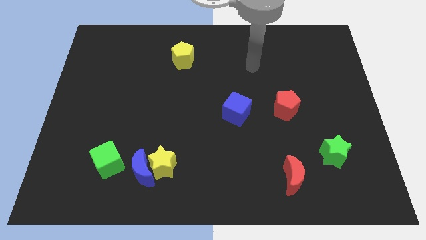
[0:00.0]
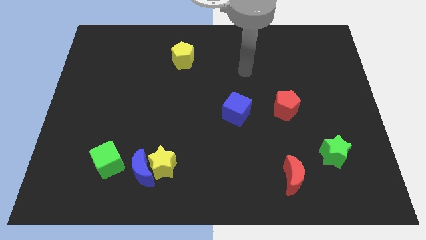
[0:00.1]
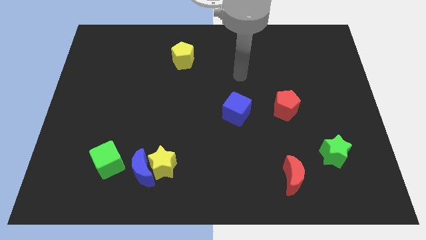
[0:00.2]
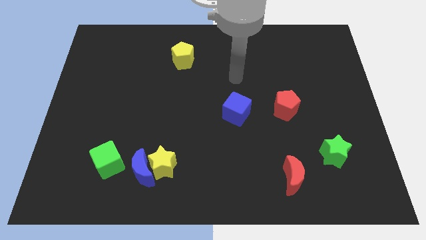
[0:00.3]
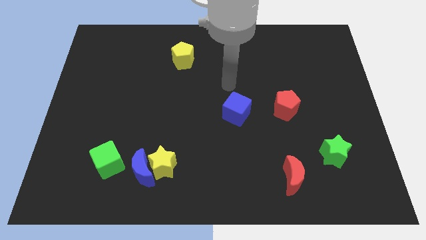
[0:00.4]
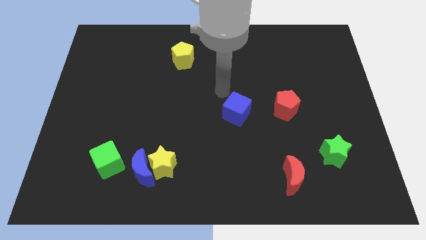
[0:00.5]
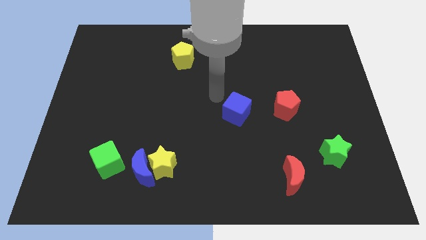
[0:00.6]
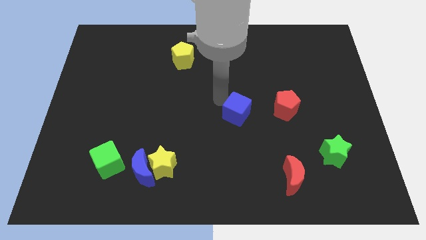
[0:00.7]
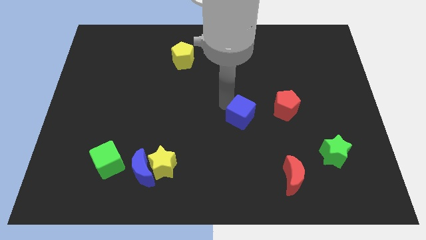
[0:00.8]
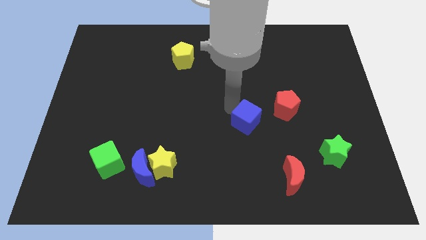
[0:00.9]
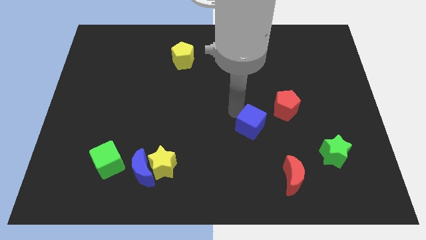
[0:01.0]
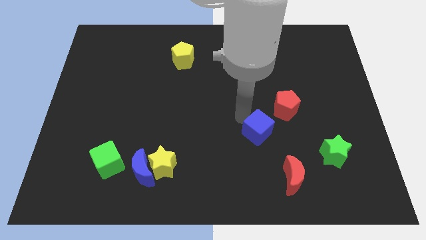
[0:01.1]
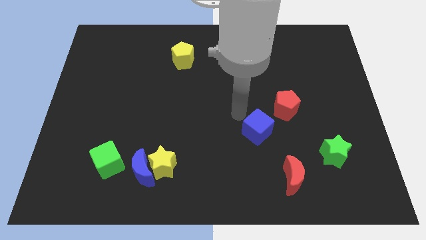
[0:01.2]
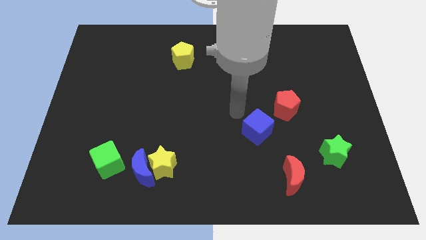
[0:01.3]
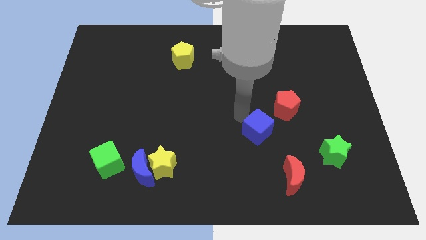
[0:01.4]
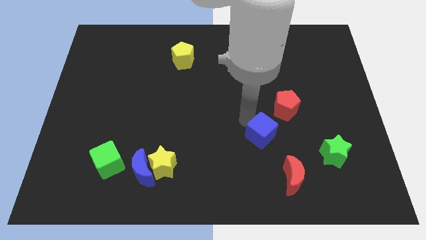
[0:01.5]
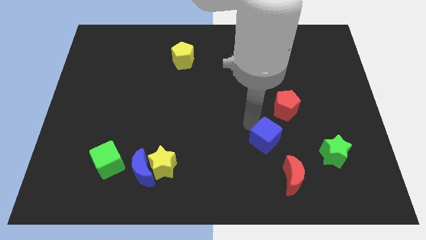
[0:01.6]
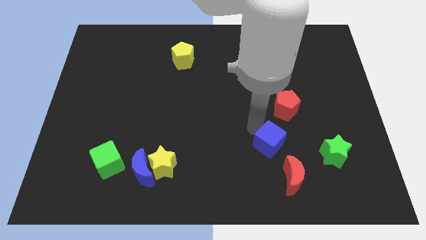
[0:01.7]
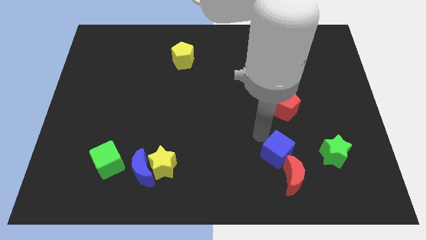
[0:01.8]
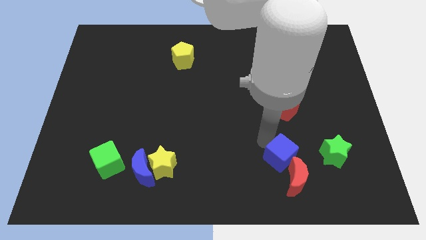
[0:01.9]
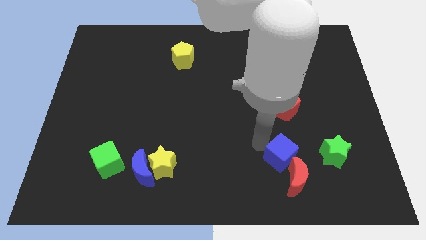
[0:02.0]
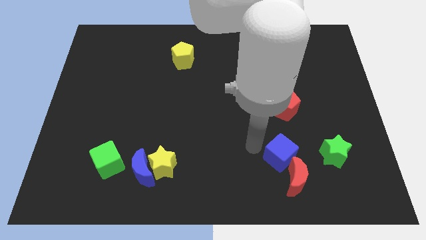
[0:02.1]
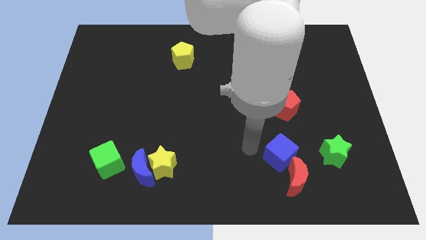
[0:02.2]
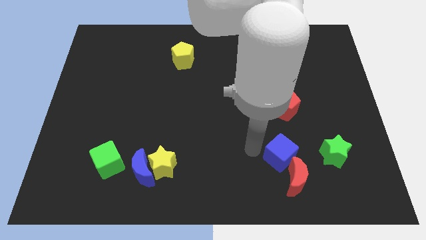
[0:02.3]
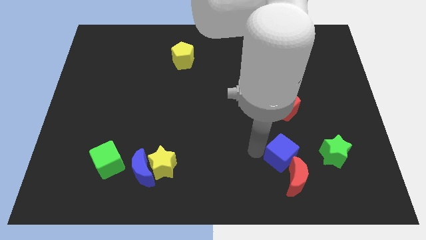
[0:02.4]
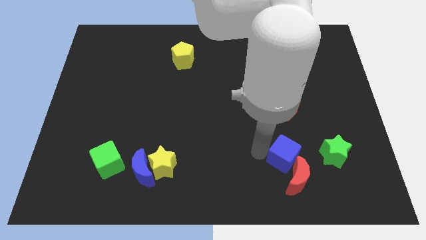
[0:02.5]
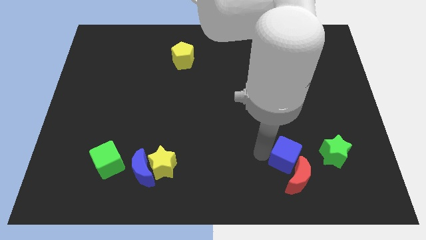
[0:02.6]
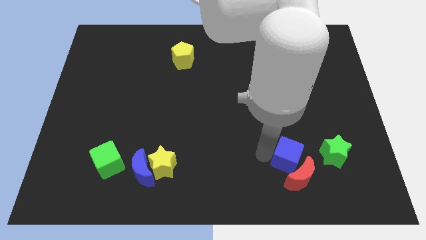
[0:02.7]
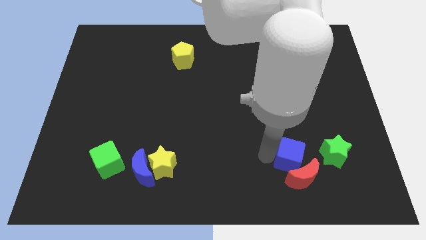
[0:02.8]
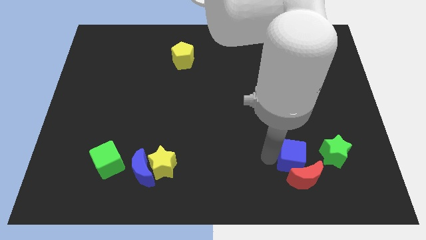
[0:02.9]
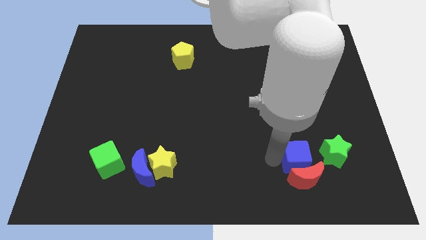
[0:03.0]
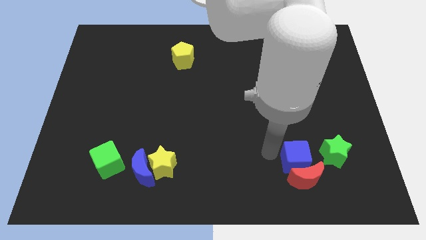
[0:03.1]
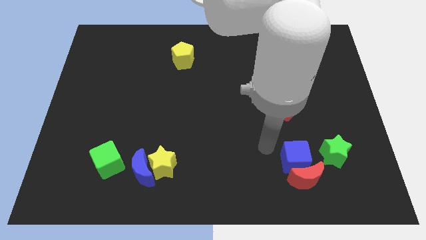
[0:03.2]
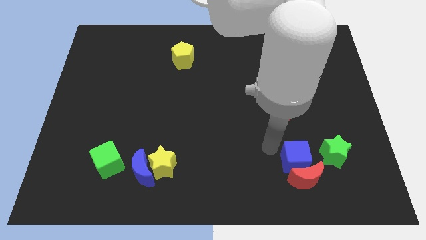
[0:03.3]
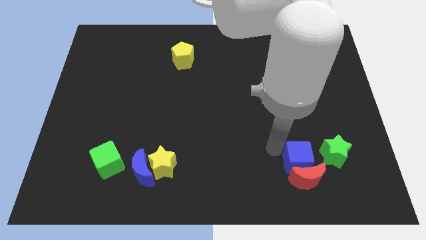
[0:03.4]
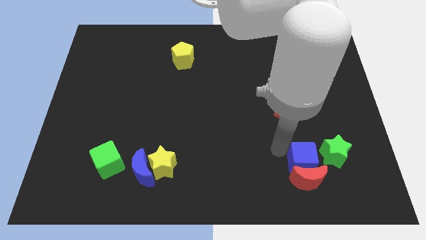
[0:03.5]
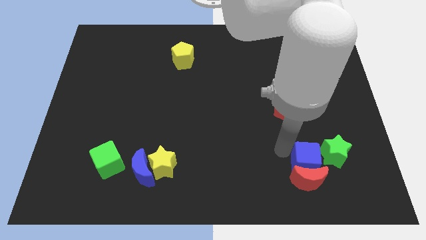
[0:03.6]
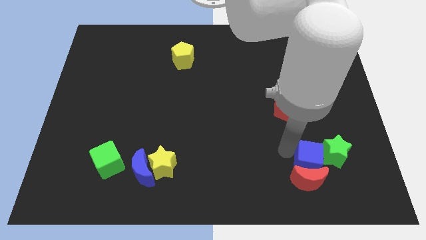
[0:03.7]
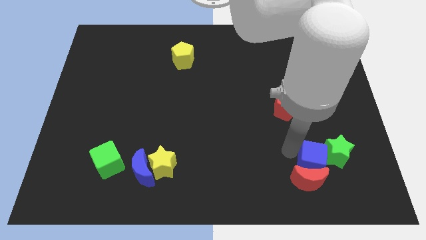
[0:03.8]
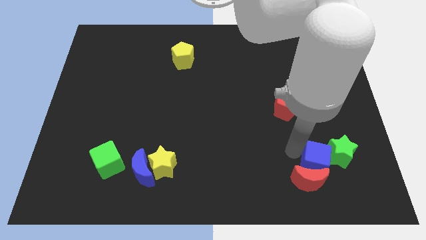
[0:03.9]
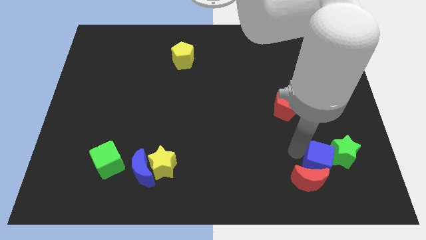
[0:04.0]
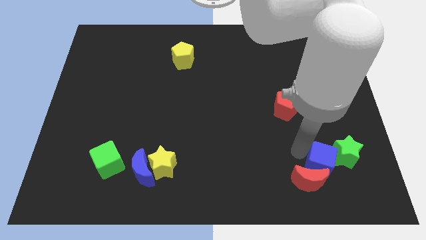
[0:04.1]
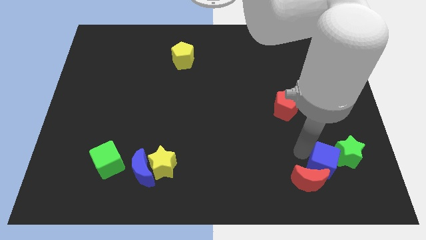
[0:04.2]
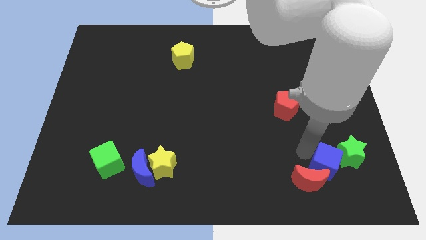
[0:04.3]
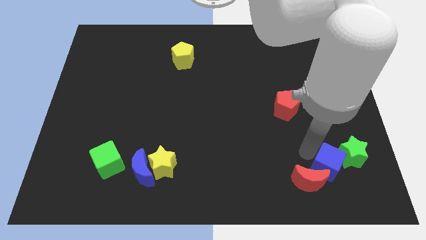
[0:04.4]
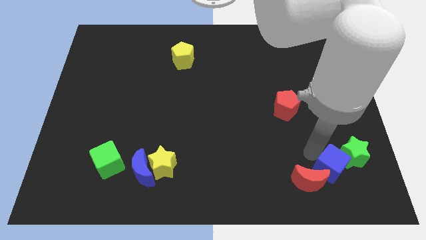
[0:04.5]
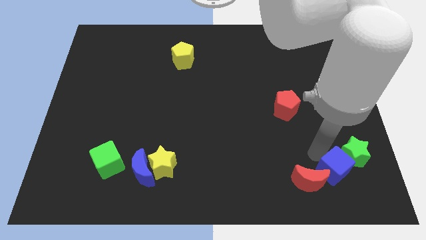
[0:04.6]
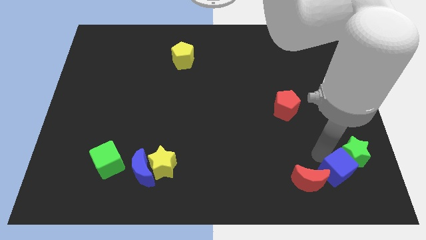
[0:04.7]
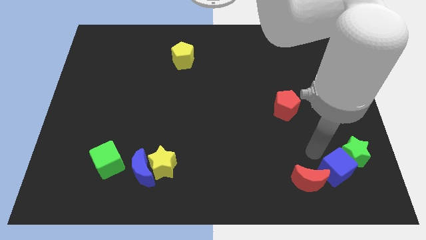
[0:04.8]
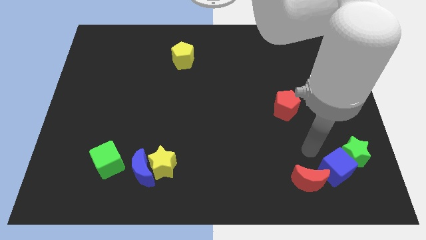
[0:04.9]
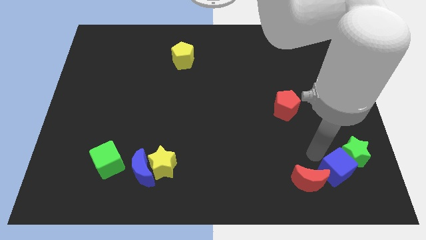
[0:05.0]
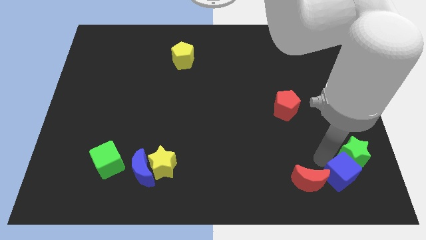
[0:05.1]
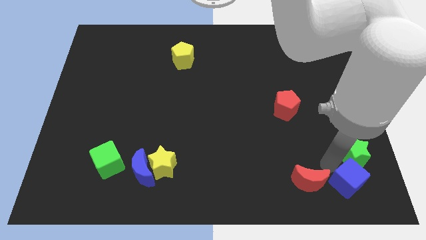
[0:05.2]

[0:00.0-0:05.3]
push the blue cube to the bottom right

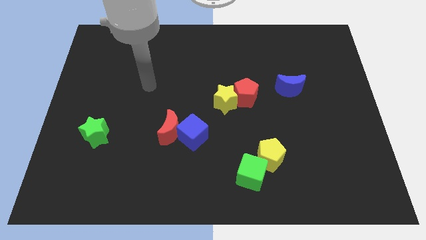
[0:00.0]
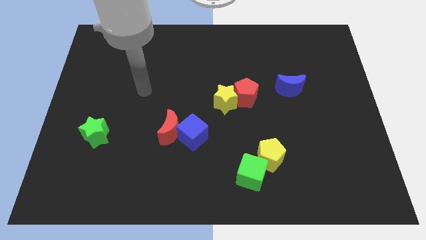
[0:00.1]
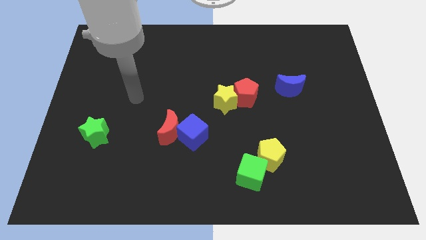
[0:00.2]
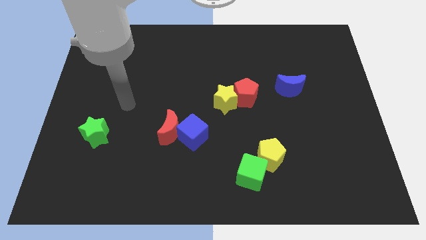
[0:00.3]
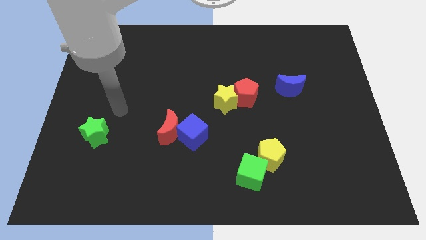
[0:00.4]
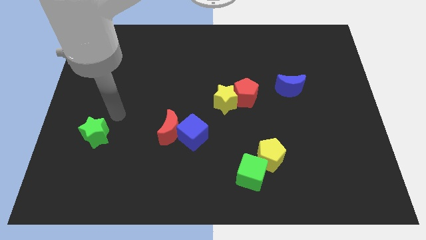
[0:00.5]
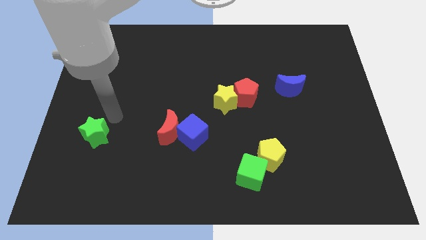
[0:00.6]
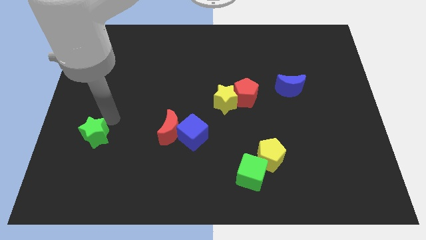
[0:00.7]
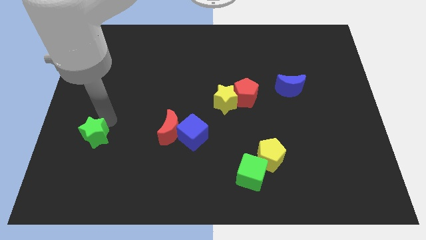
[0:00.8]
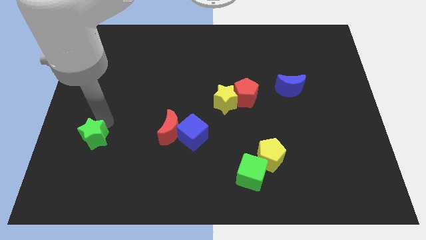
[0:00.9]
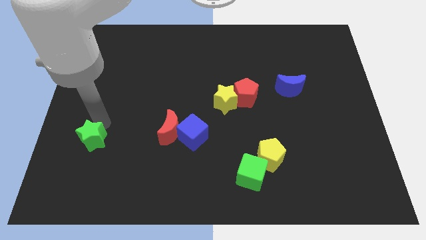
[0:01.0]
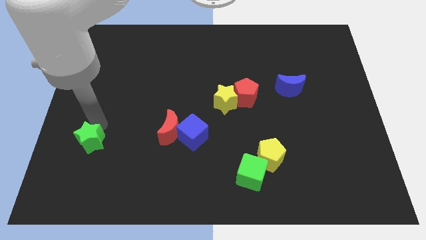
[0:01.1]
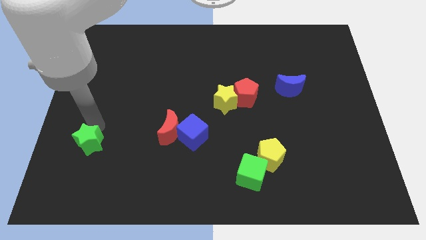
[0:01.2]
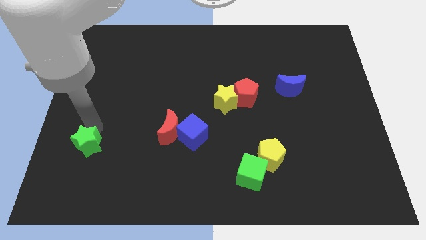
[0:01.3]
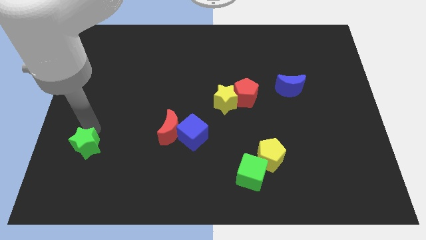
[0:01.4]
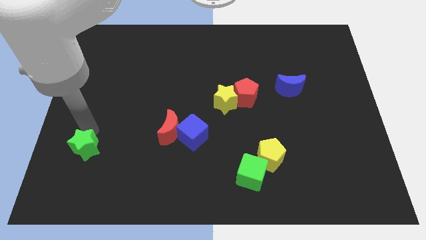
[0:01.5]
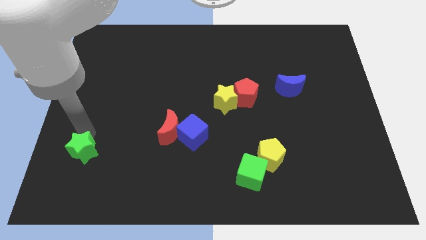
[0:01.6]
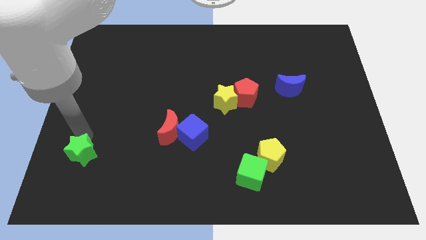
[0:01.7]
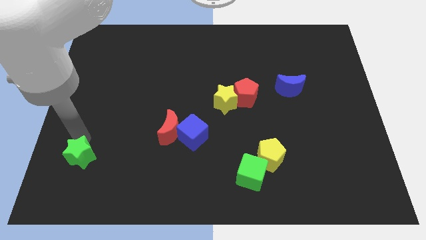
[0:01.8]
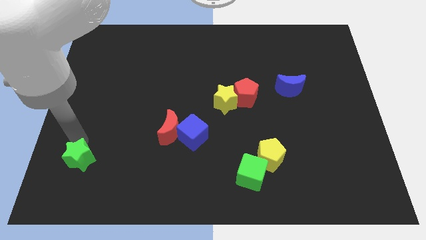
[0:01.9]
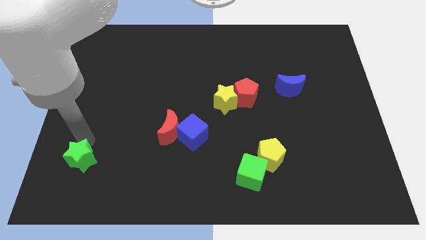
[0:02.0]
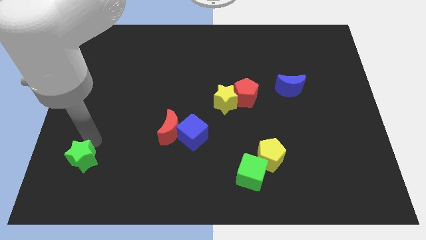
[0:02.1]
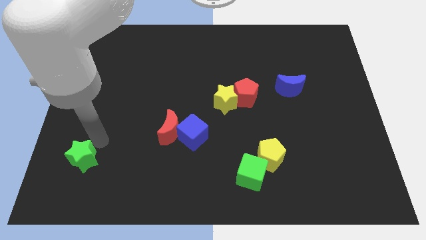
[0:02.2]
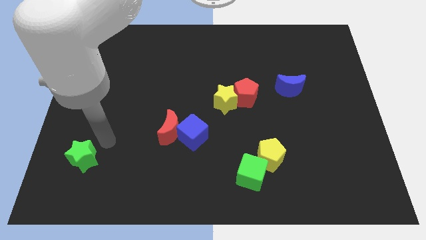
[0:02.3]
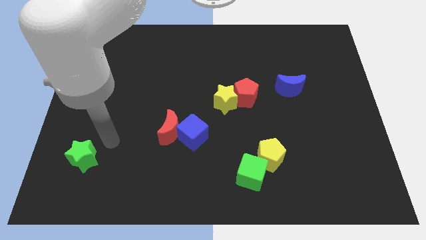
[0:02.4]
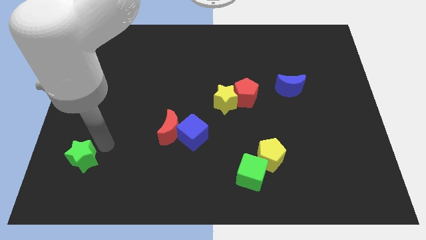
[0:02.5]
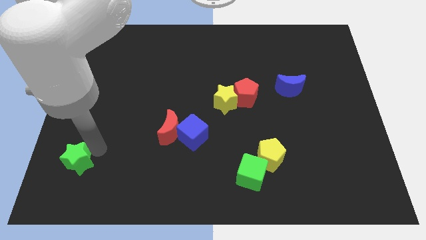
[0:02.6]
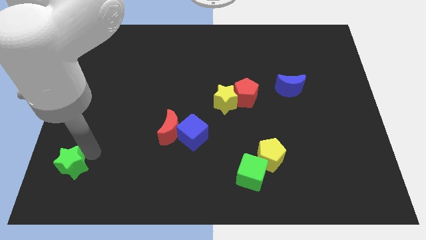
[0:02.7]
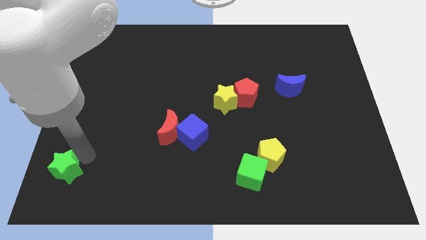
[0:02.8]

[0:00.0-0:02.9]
push the green star to the bottom left corner
